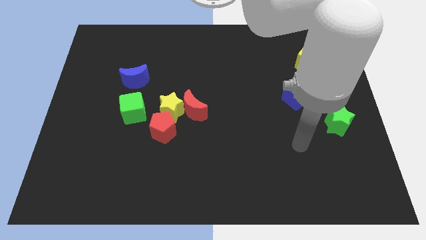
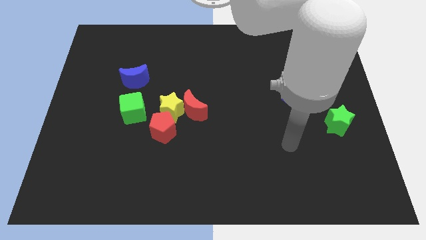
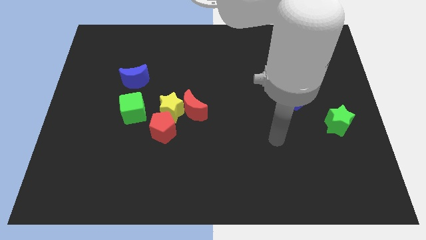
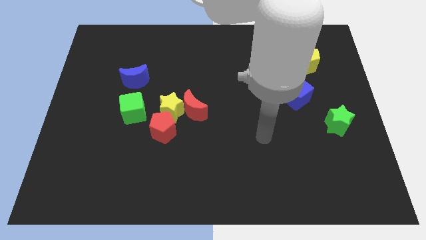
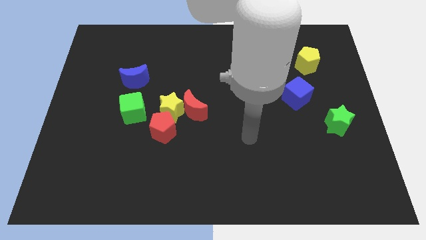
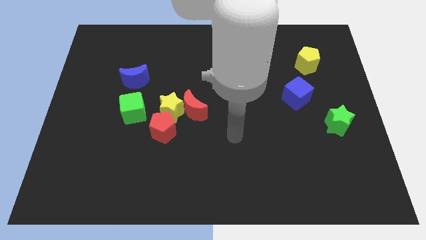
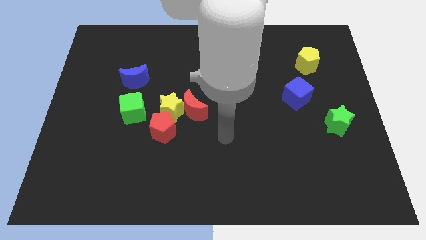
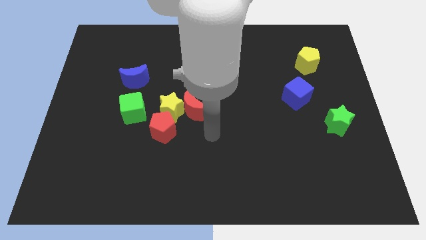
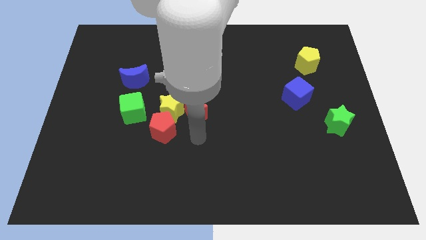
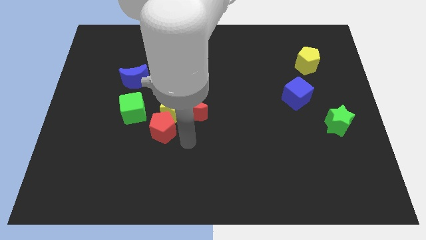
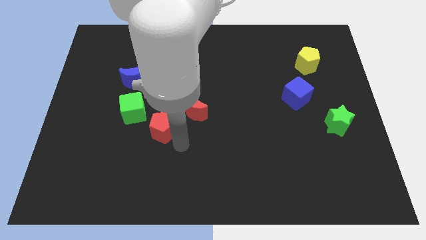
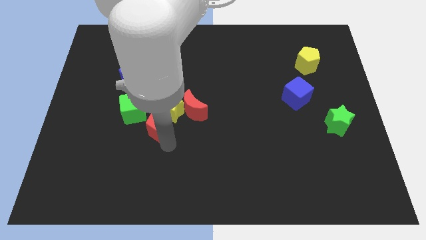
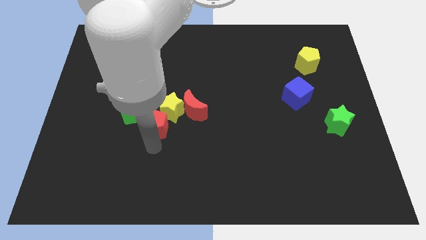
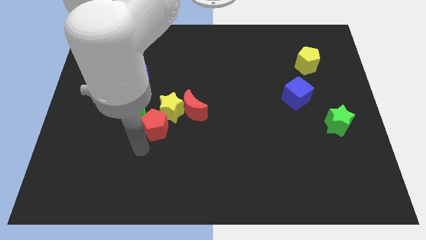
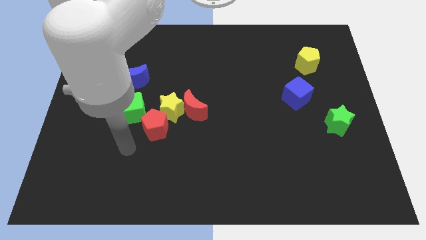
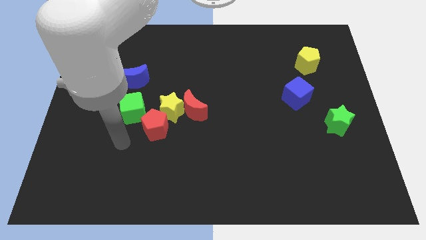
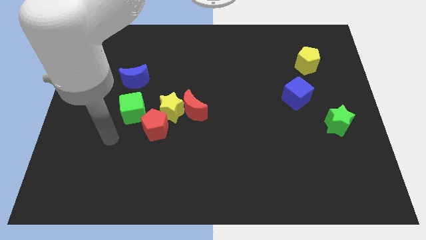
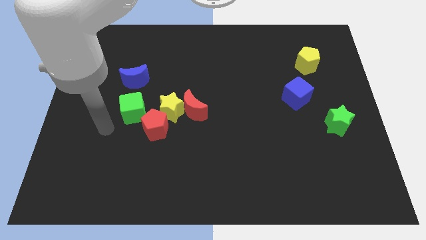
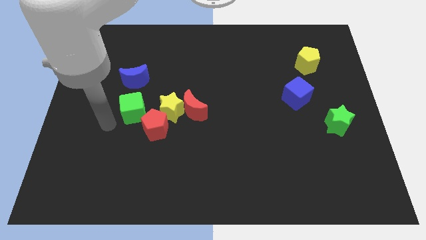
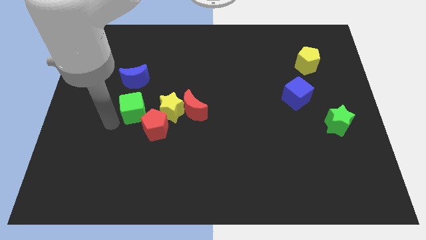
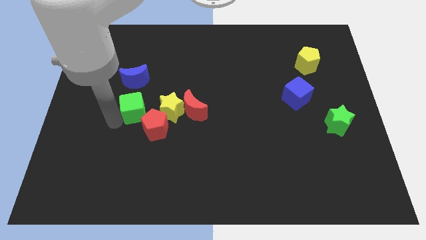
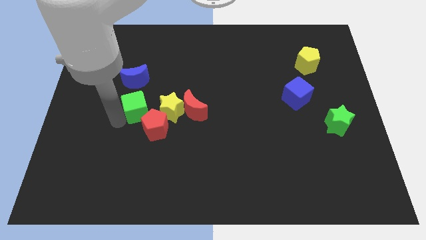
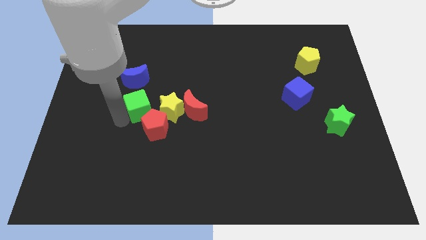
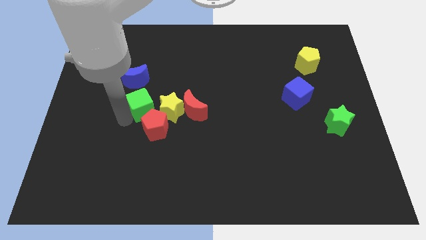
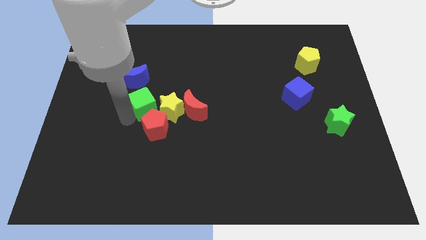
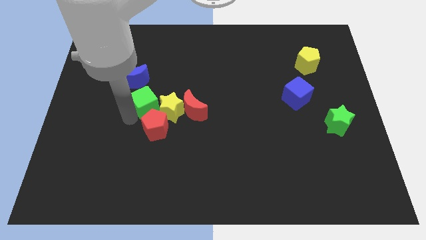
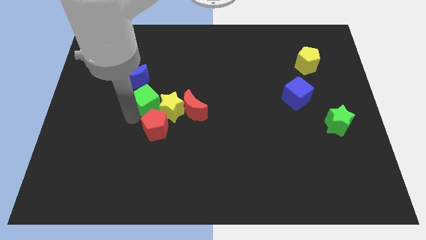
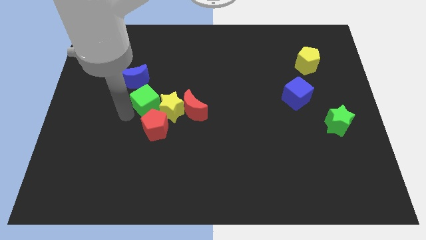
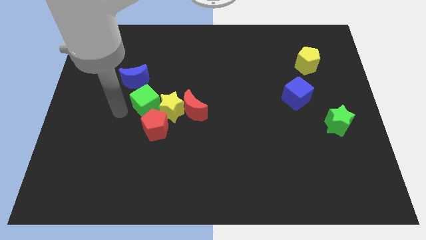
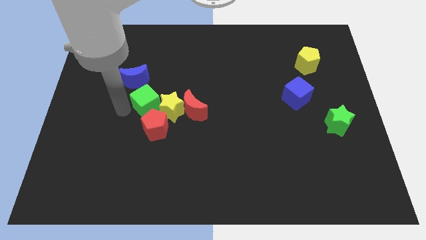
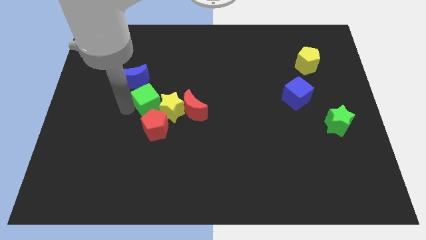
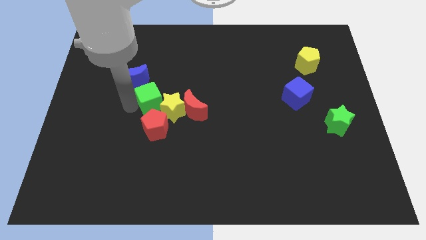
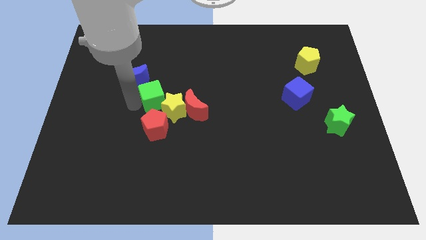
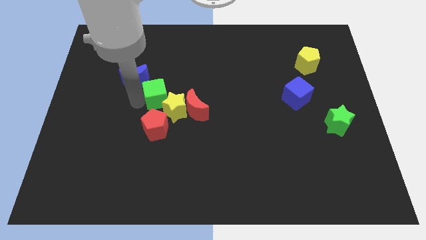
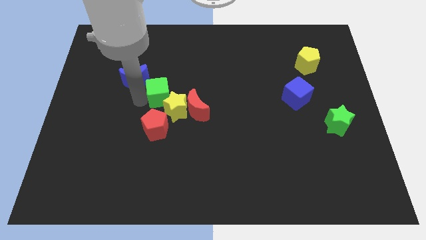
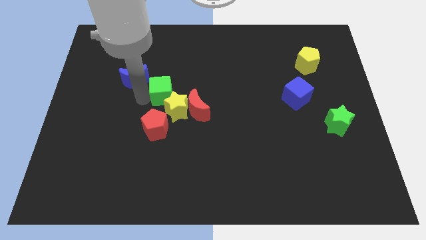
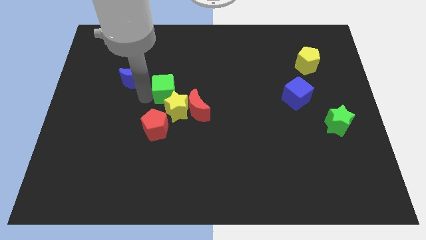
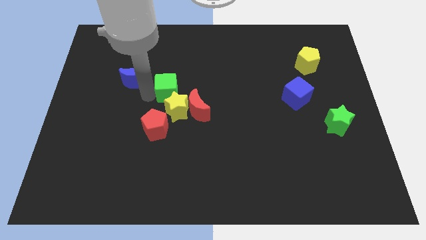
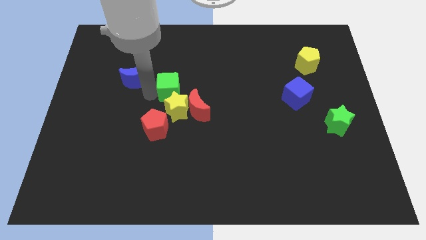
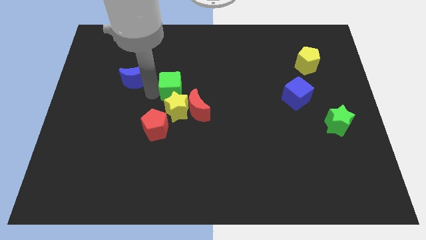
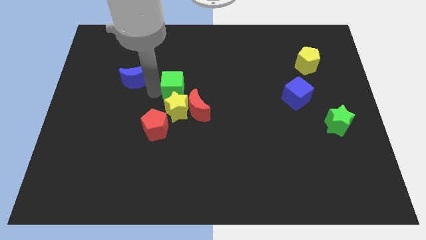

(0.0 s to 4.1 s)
move the green cube to the right a little bit

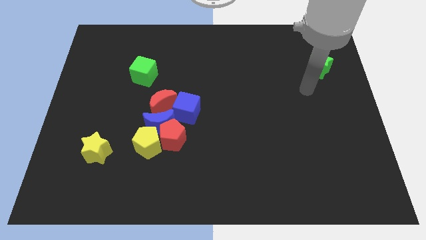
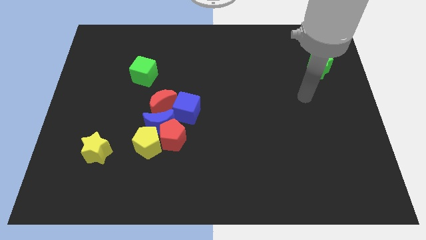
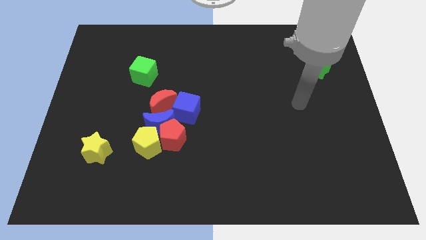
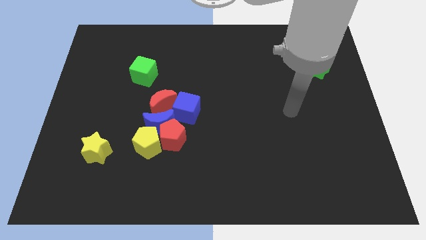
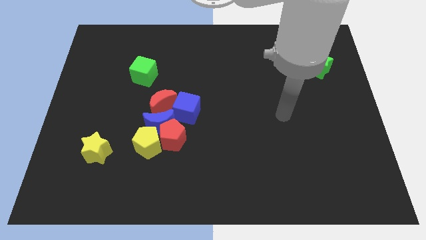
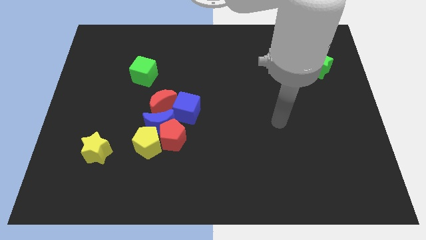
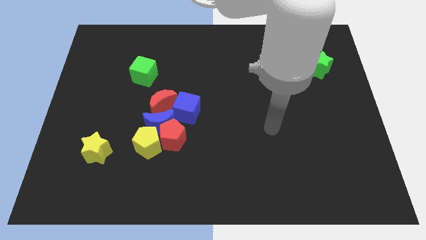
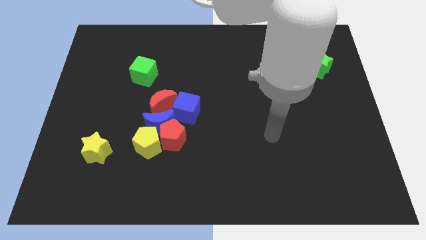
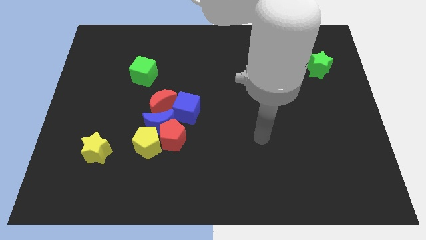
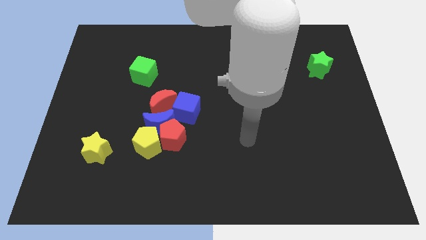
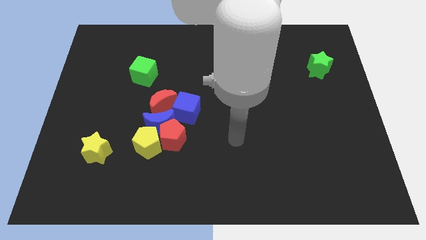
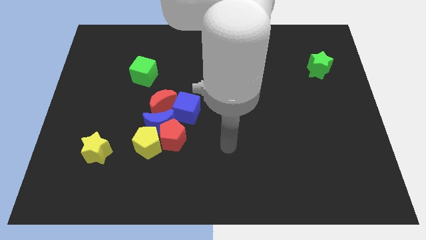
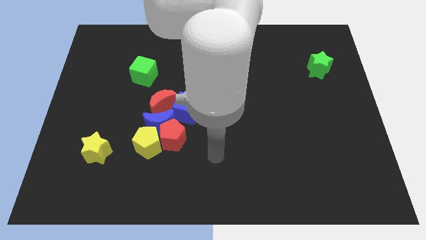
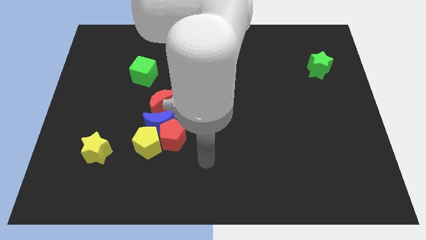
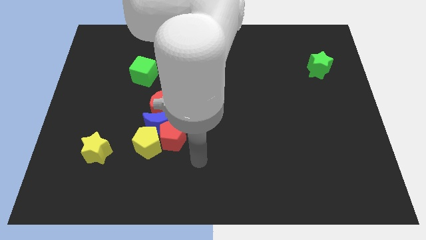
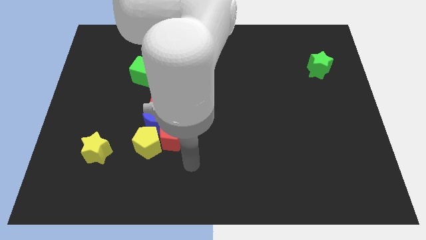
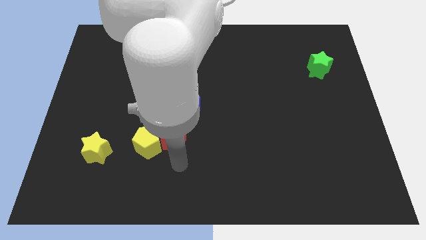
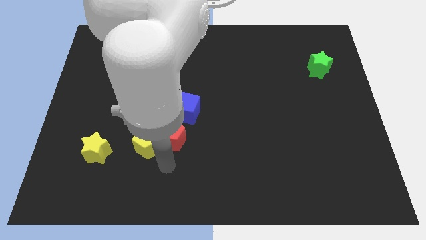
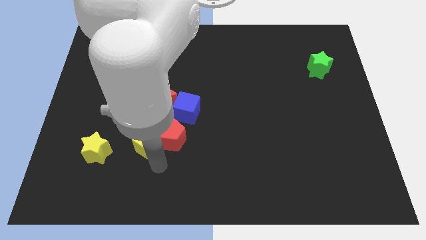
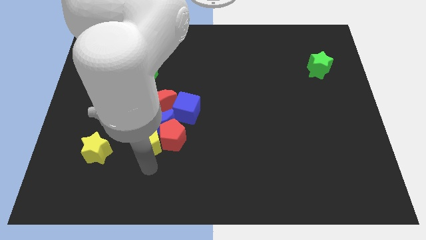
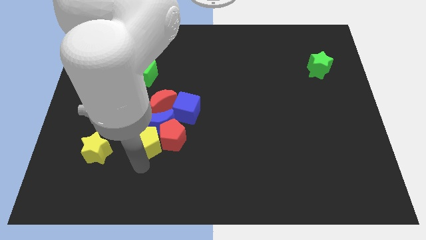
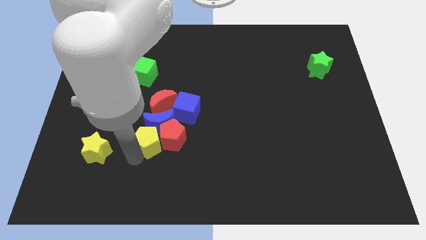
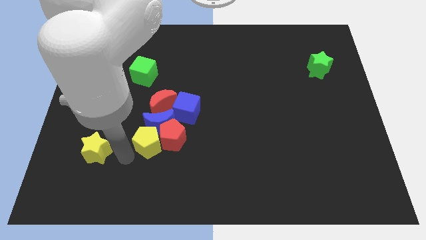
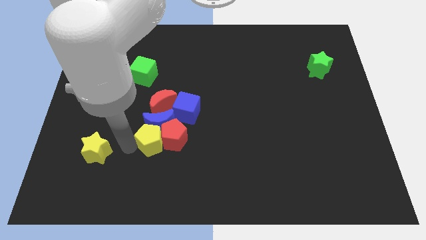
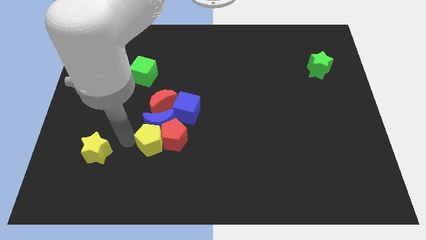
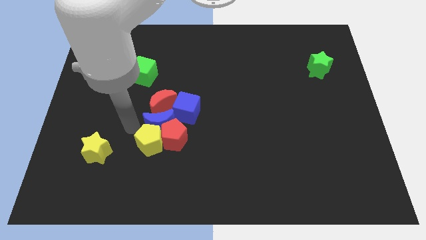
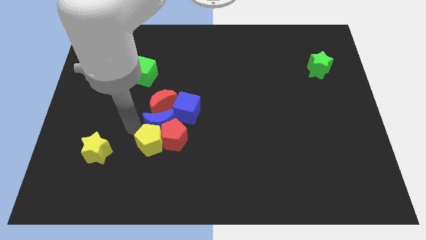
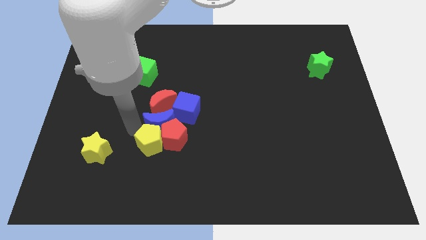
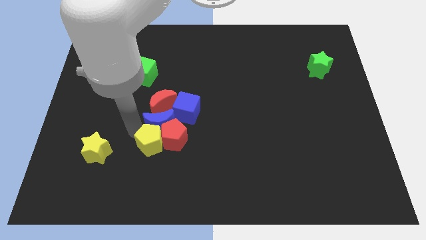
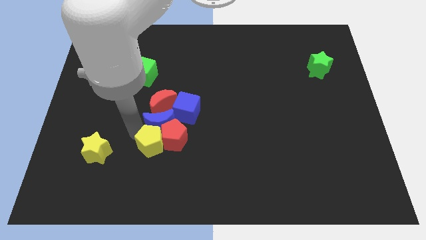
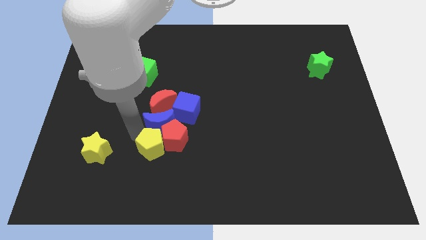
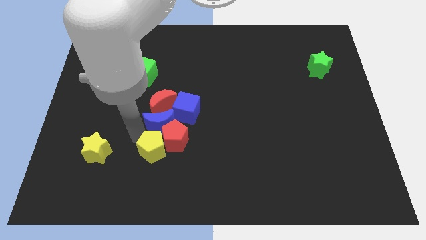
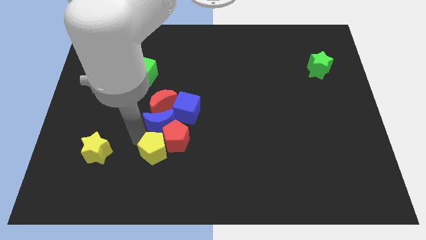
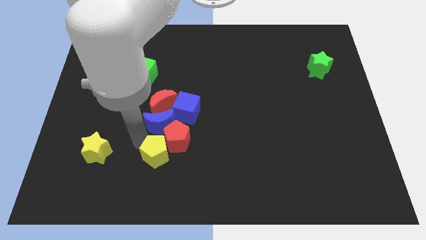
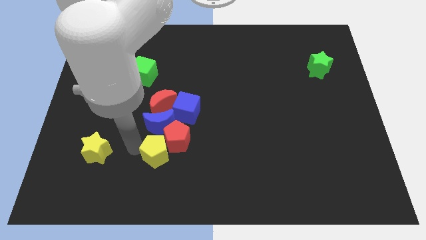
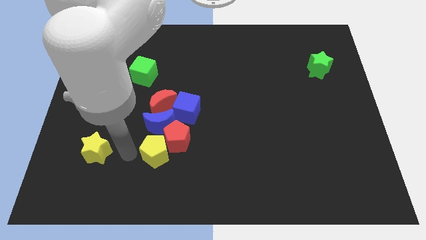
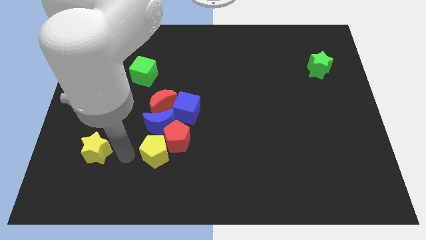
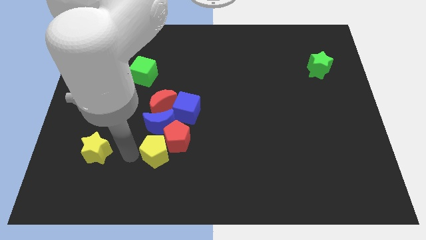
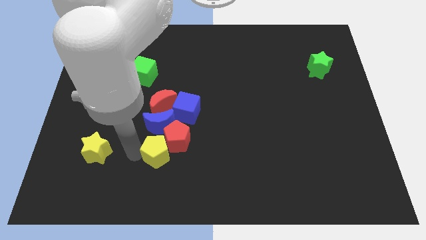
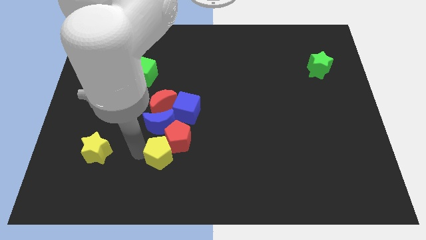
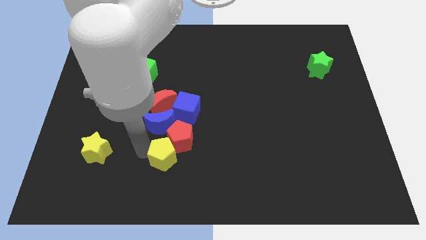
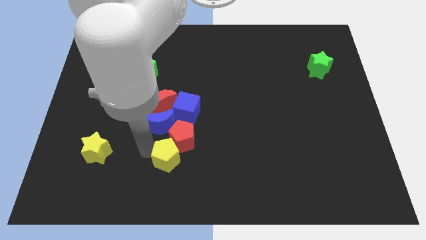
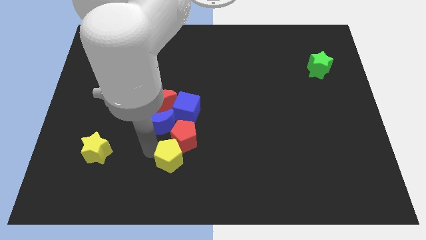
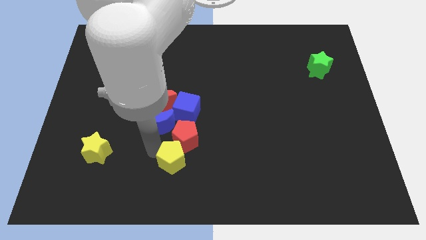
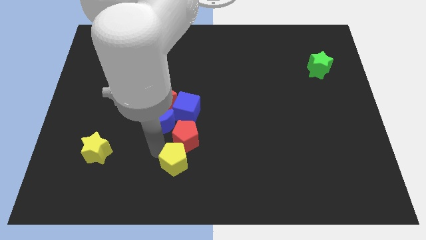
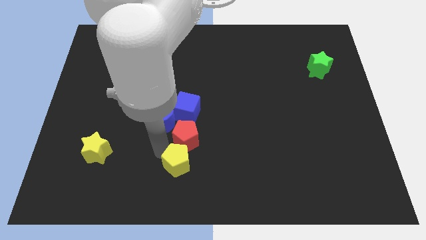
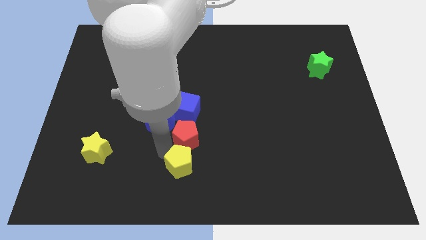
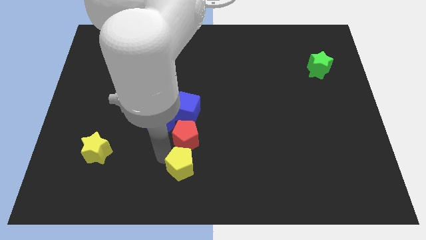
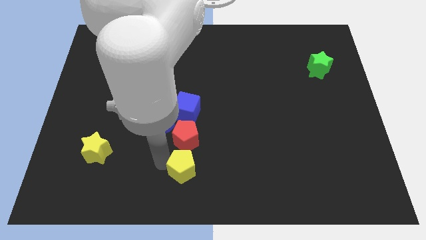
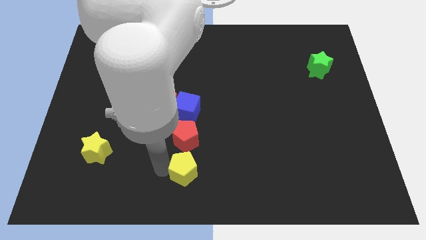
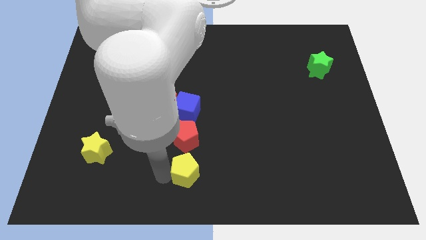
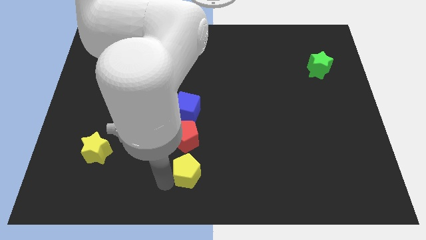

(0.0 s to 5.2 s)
push the yellow pentagon right somewhat
